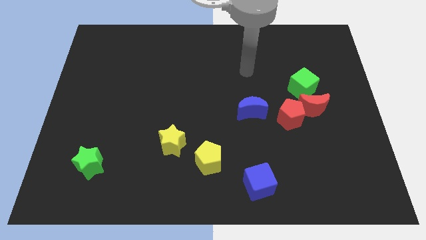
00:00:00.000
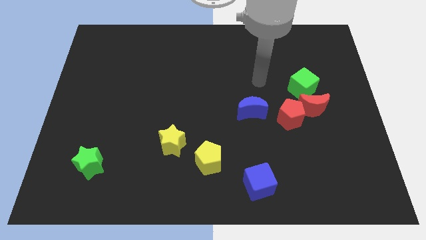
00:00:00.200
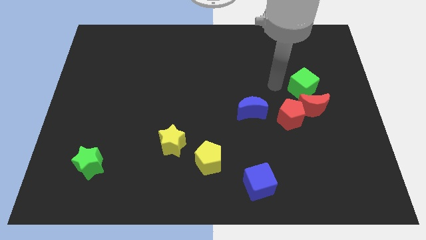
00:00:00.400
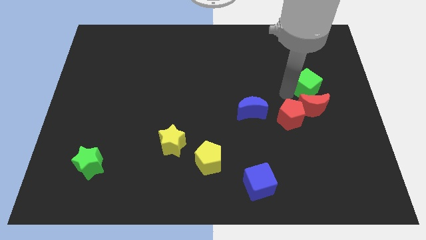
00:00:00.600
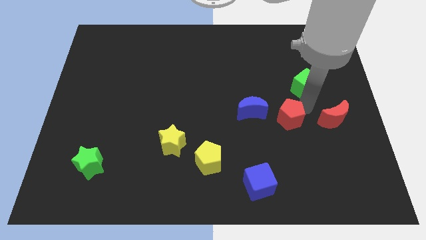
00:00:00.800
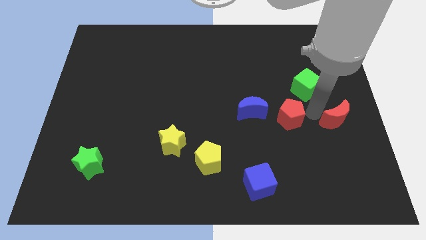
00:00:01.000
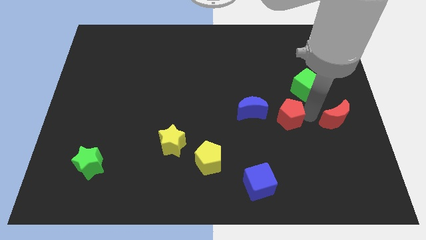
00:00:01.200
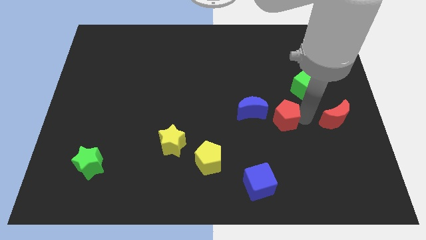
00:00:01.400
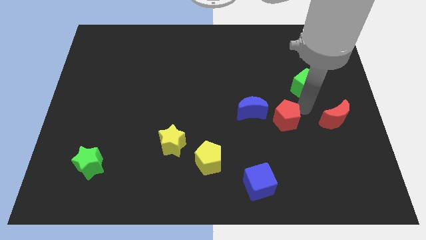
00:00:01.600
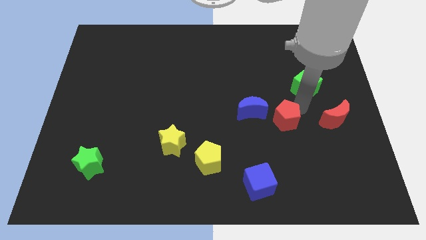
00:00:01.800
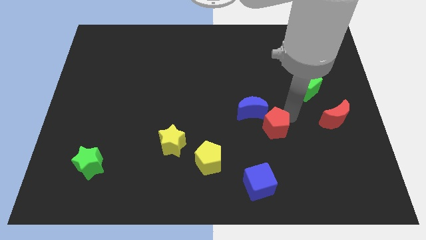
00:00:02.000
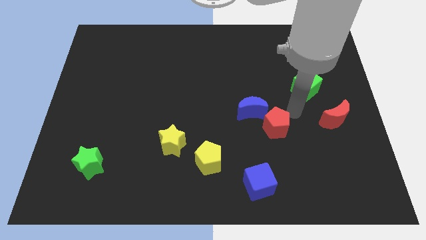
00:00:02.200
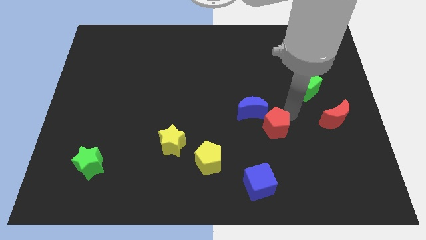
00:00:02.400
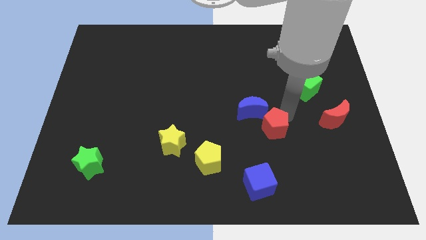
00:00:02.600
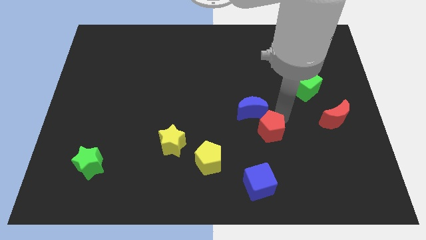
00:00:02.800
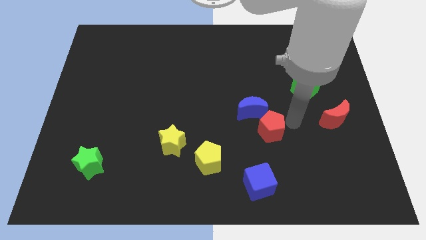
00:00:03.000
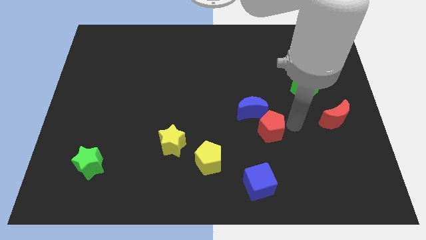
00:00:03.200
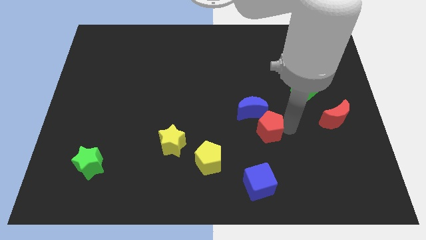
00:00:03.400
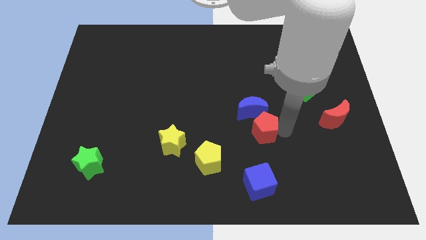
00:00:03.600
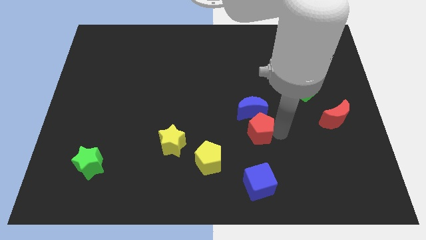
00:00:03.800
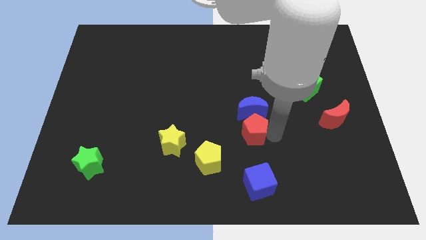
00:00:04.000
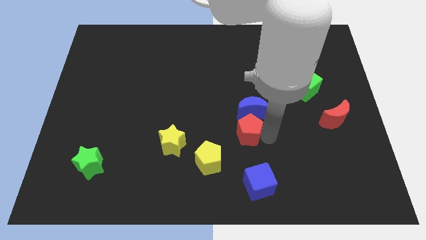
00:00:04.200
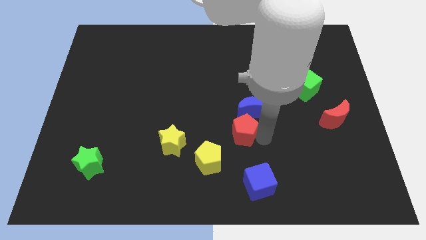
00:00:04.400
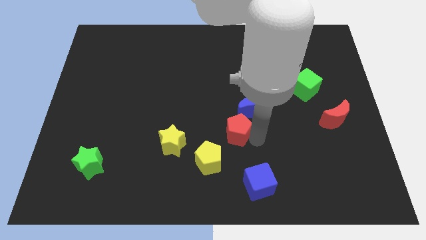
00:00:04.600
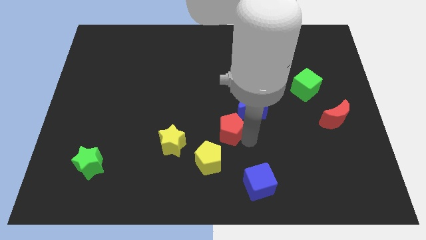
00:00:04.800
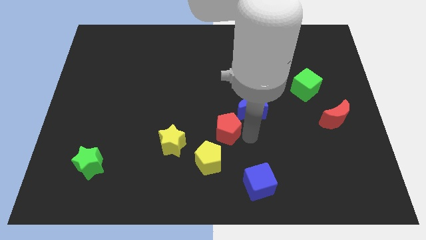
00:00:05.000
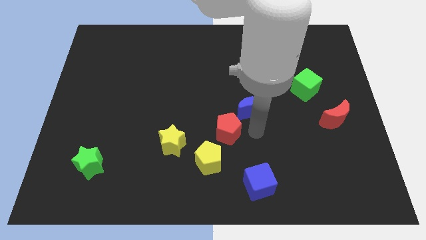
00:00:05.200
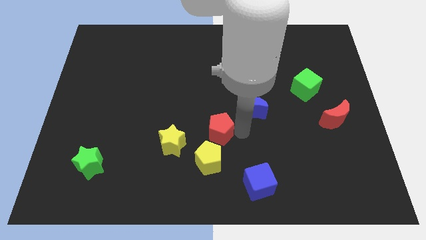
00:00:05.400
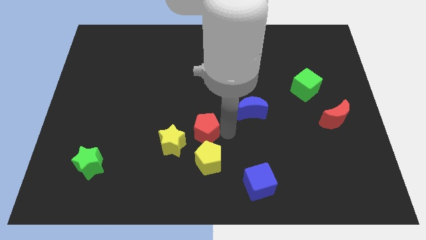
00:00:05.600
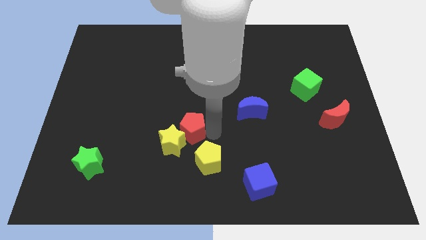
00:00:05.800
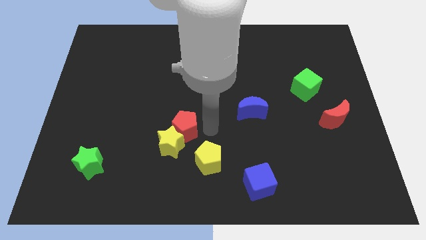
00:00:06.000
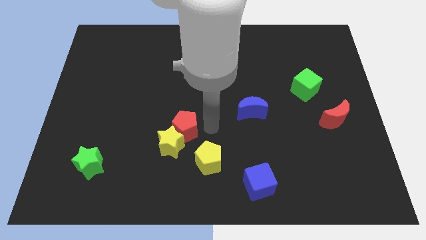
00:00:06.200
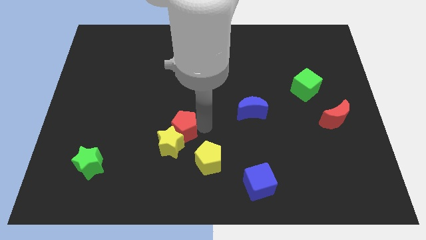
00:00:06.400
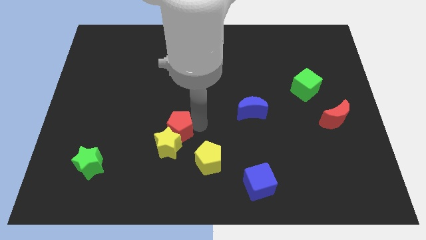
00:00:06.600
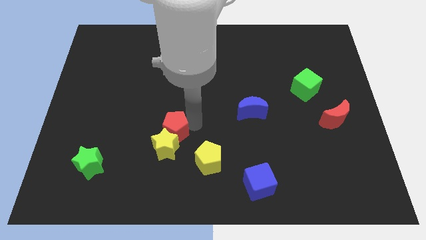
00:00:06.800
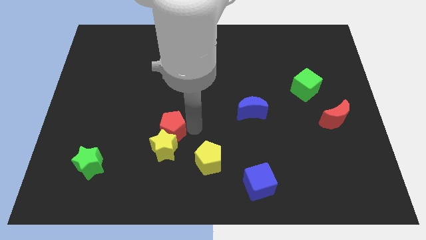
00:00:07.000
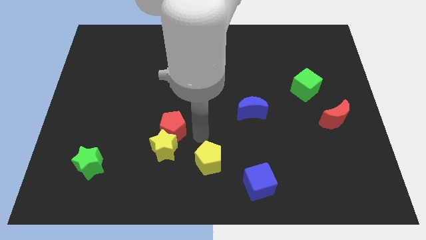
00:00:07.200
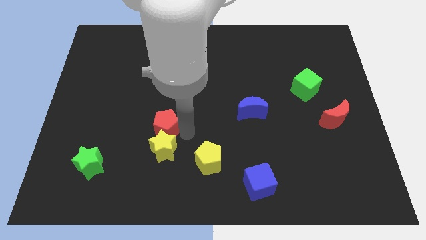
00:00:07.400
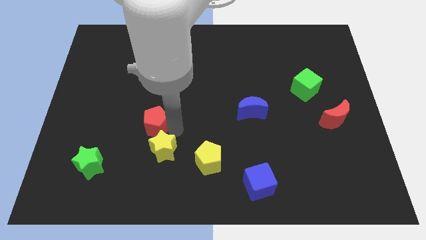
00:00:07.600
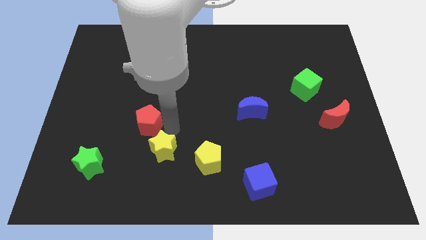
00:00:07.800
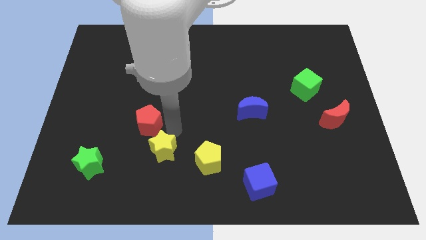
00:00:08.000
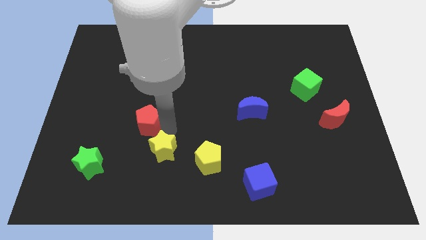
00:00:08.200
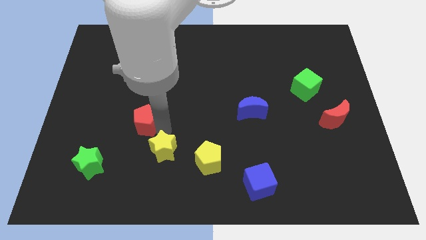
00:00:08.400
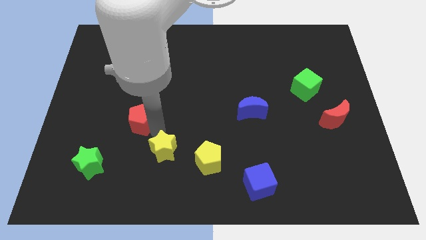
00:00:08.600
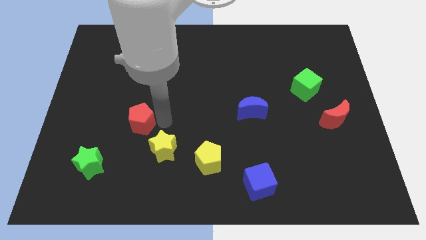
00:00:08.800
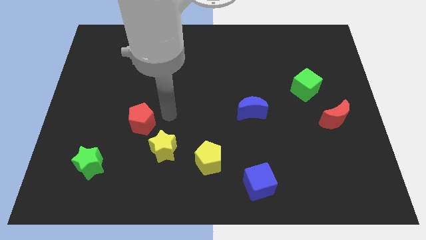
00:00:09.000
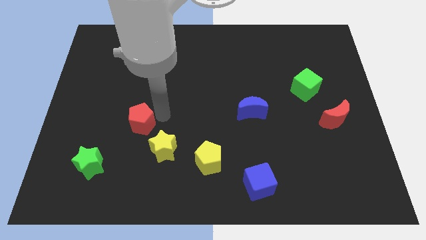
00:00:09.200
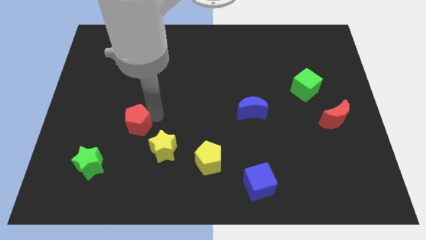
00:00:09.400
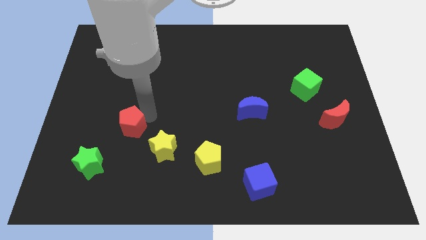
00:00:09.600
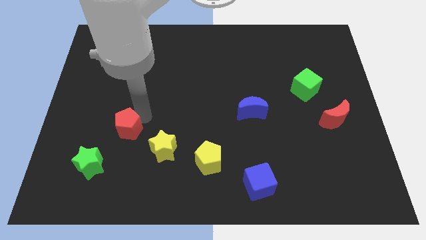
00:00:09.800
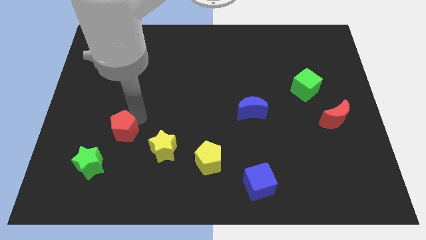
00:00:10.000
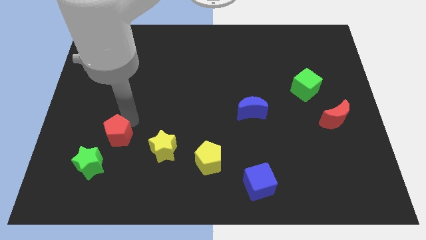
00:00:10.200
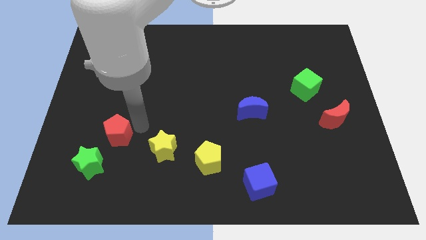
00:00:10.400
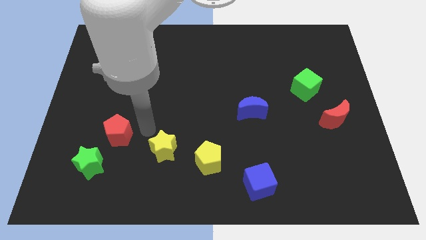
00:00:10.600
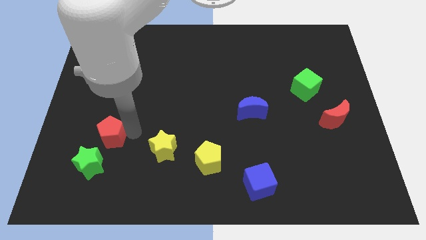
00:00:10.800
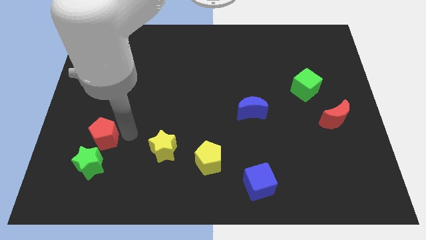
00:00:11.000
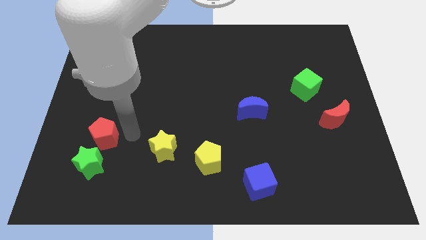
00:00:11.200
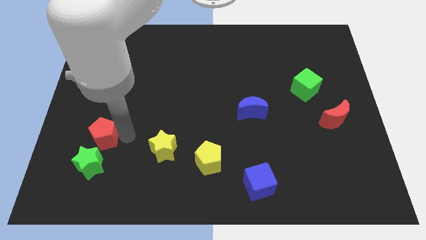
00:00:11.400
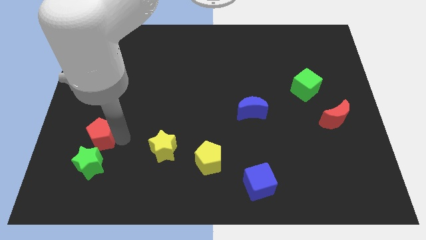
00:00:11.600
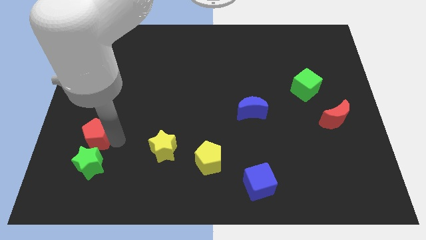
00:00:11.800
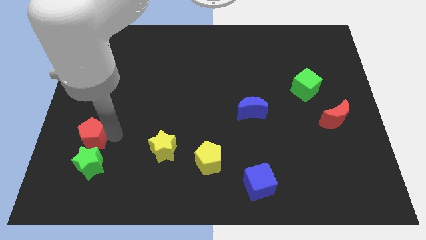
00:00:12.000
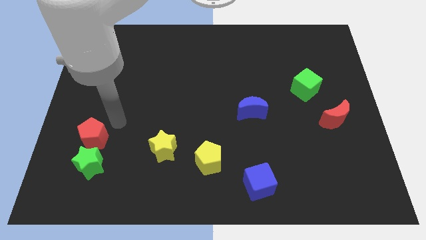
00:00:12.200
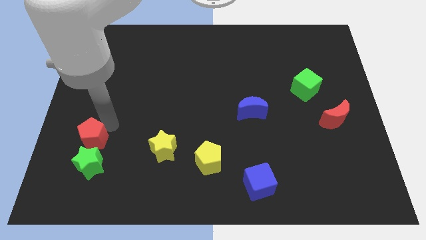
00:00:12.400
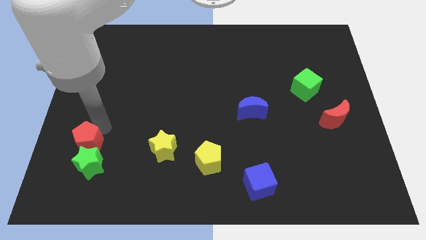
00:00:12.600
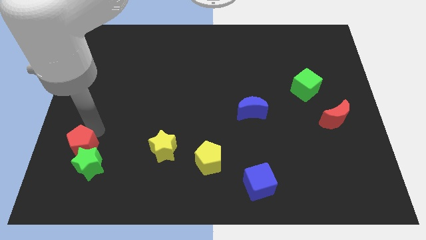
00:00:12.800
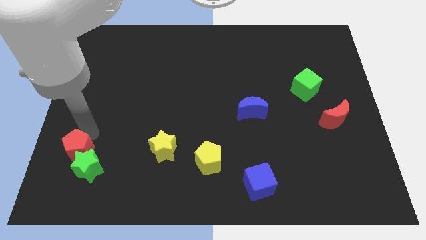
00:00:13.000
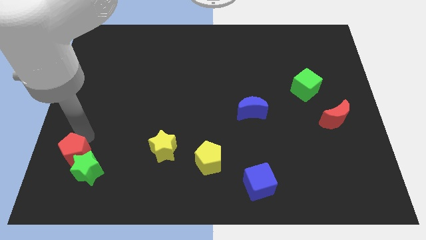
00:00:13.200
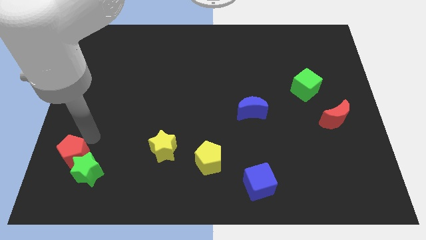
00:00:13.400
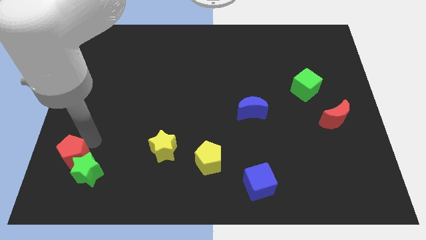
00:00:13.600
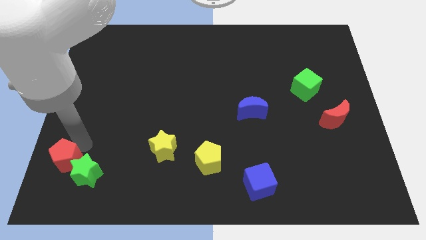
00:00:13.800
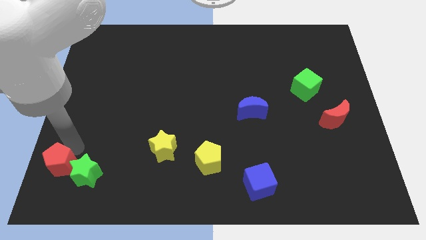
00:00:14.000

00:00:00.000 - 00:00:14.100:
push the red pentagon to the bottom left corner
